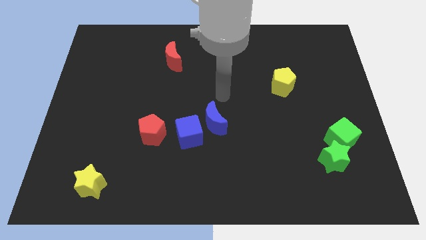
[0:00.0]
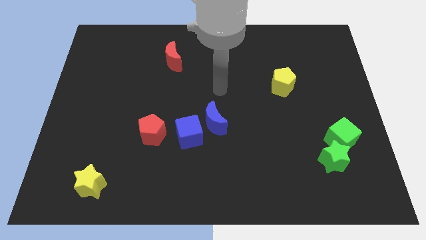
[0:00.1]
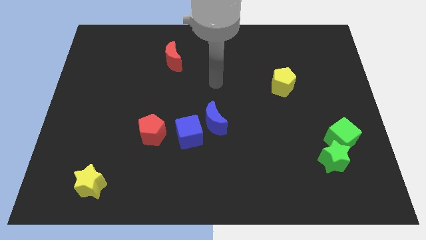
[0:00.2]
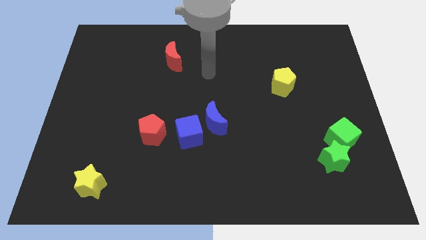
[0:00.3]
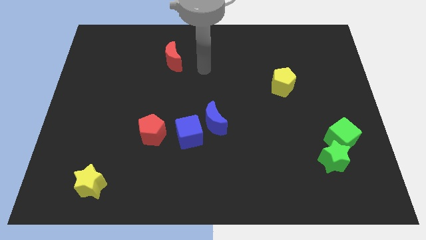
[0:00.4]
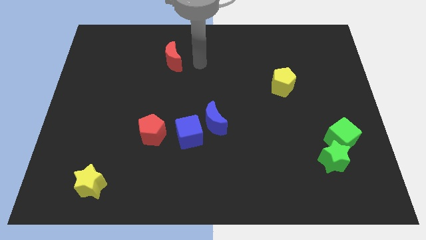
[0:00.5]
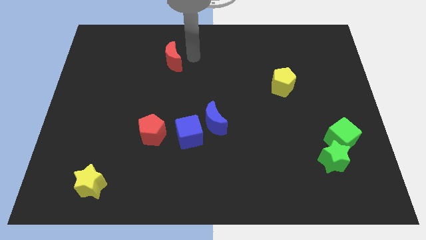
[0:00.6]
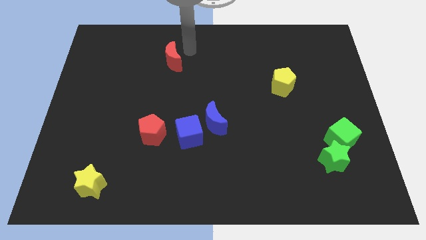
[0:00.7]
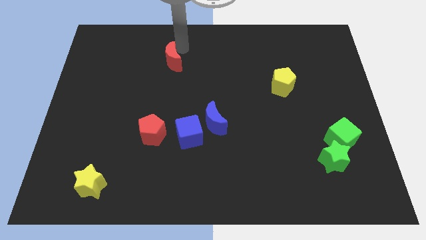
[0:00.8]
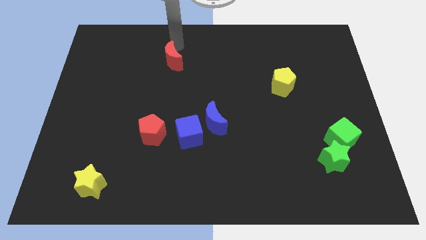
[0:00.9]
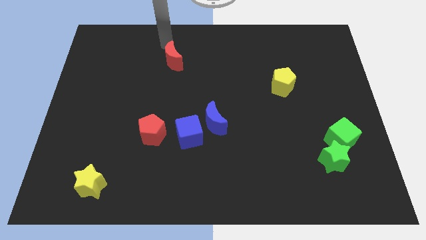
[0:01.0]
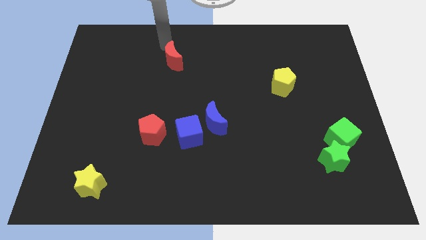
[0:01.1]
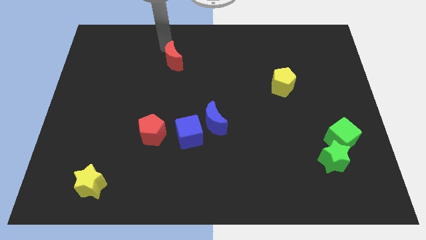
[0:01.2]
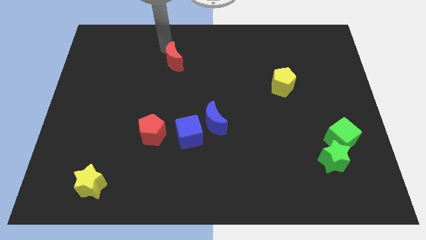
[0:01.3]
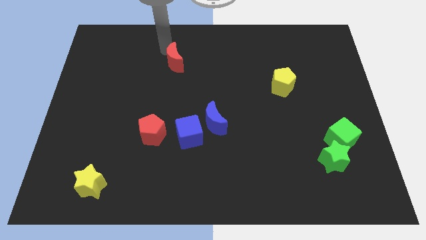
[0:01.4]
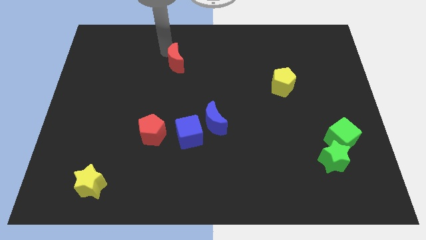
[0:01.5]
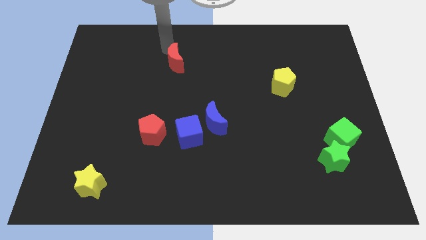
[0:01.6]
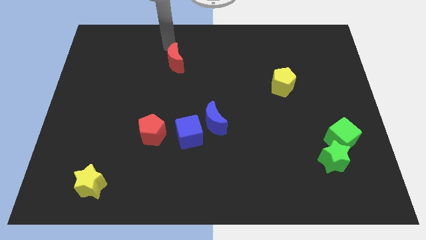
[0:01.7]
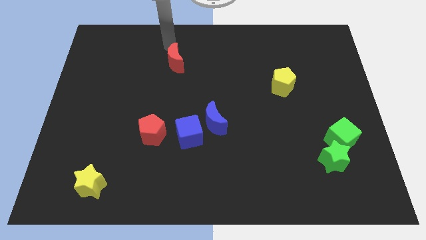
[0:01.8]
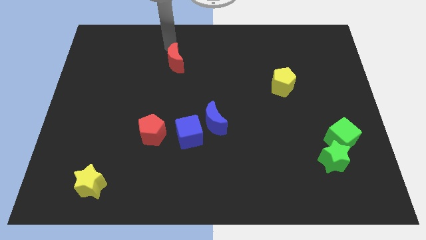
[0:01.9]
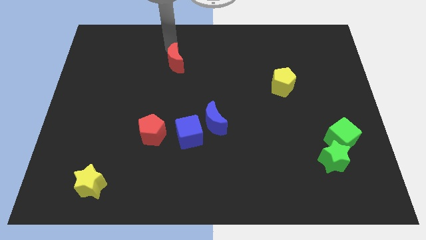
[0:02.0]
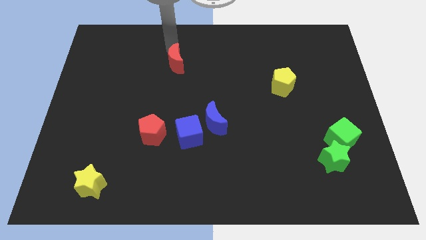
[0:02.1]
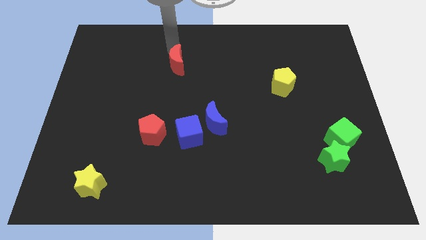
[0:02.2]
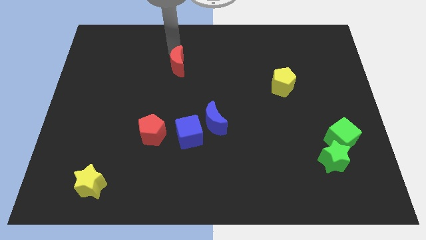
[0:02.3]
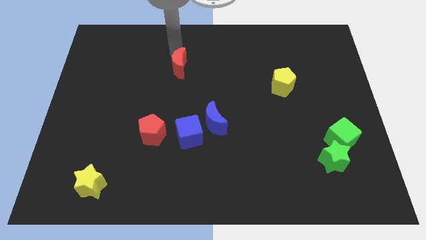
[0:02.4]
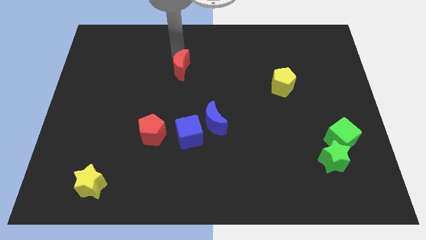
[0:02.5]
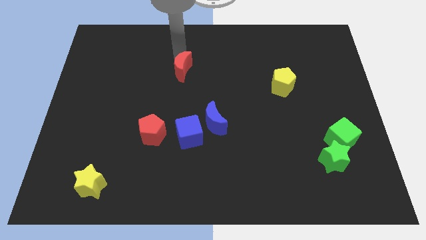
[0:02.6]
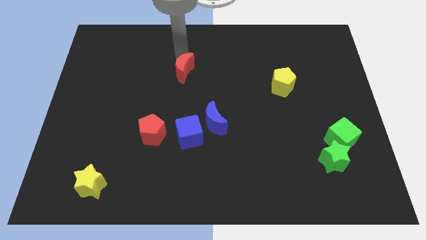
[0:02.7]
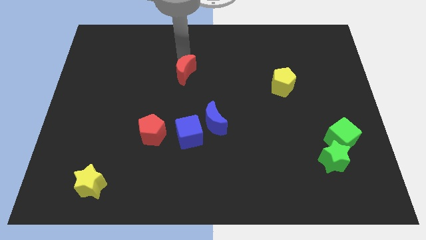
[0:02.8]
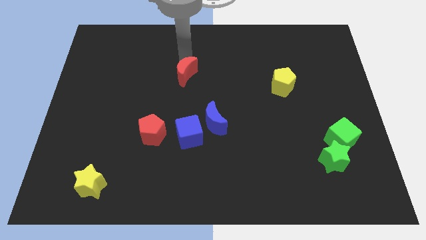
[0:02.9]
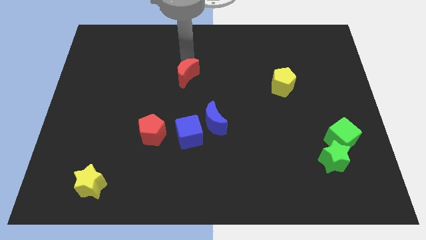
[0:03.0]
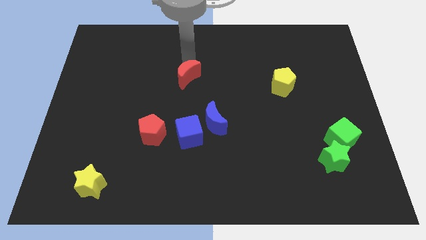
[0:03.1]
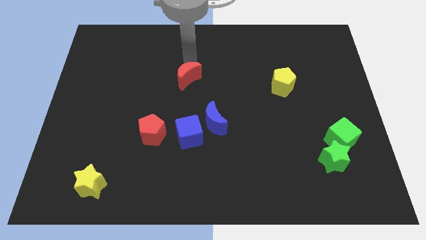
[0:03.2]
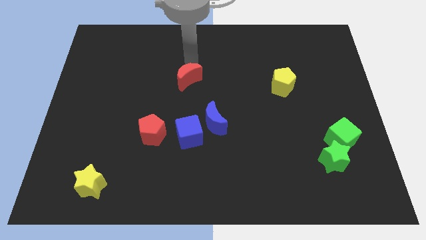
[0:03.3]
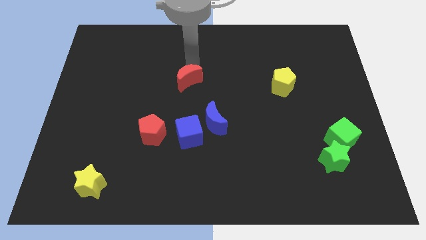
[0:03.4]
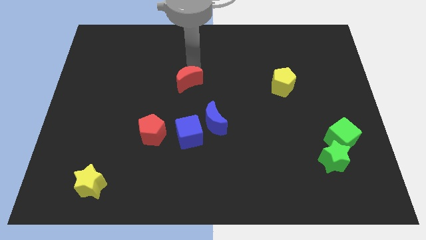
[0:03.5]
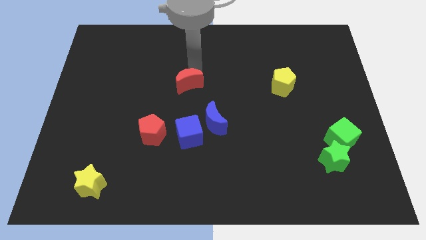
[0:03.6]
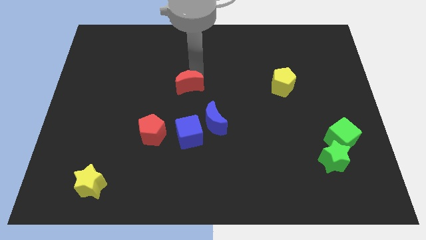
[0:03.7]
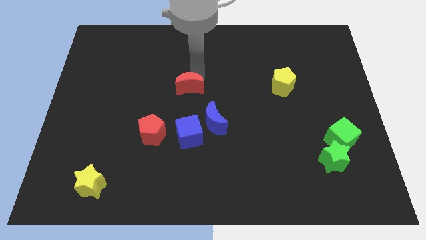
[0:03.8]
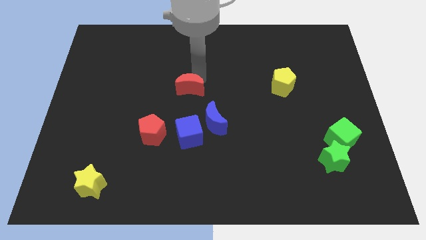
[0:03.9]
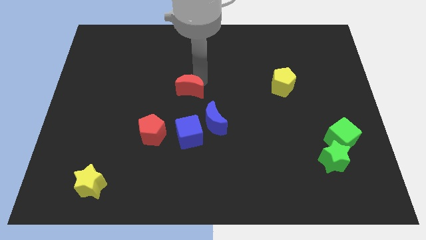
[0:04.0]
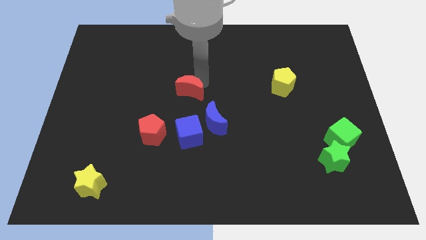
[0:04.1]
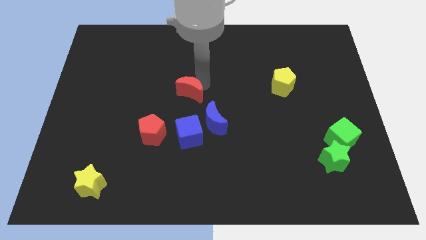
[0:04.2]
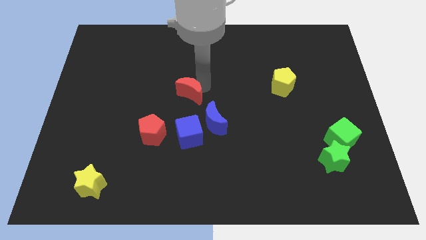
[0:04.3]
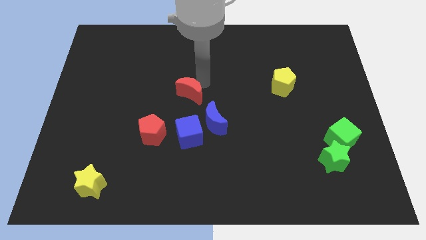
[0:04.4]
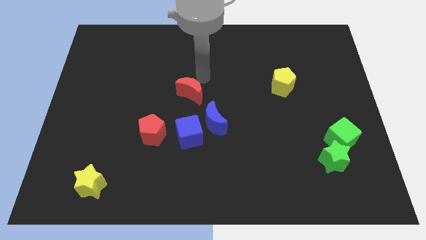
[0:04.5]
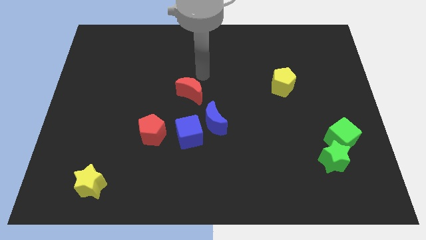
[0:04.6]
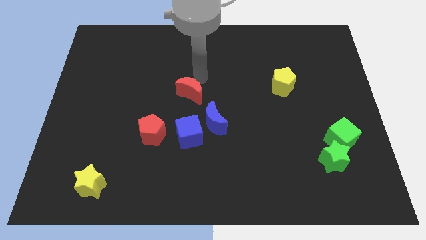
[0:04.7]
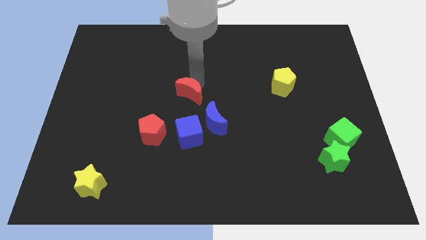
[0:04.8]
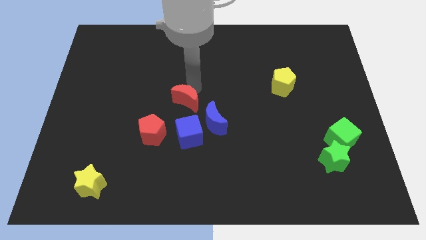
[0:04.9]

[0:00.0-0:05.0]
slide the red moon to the top right of the red pentagon

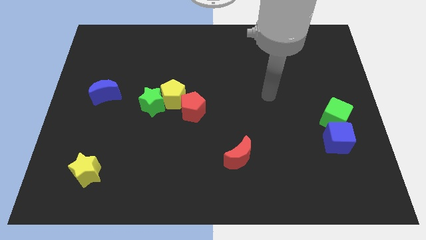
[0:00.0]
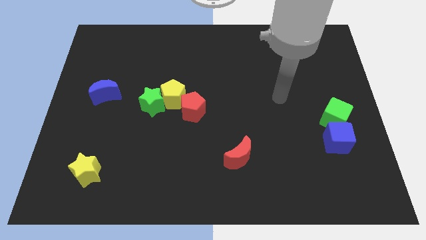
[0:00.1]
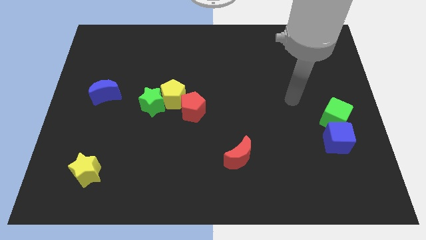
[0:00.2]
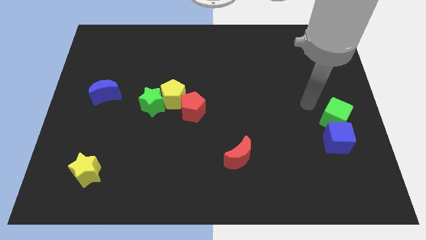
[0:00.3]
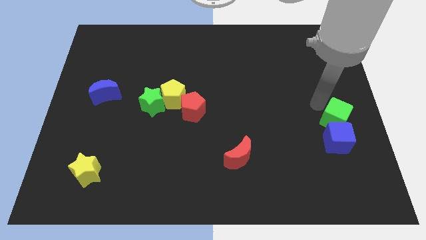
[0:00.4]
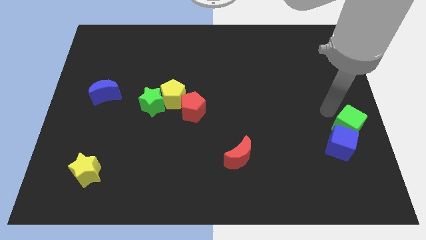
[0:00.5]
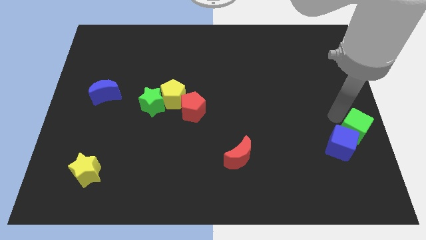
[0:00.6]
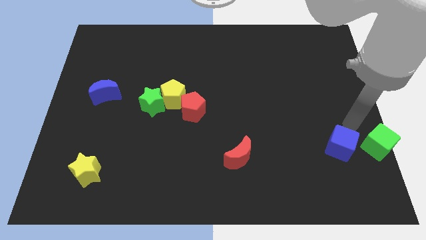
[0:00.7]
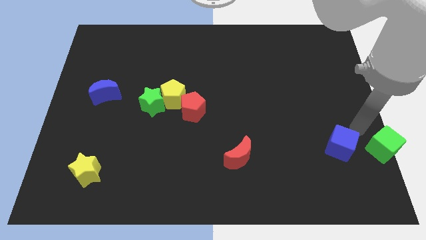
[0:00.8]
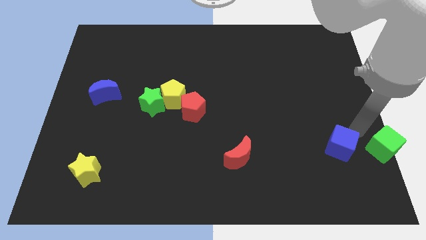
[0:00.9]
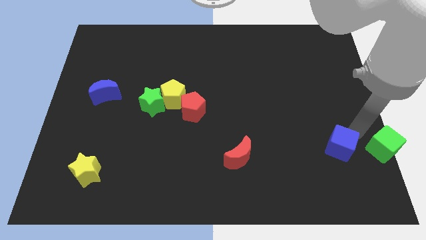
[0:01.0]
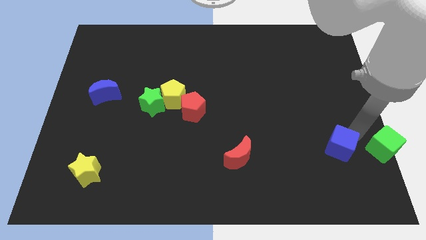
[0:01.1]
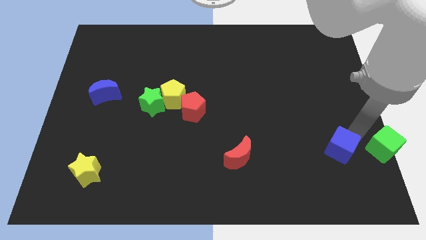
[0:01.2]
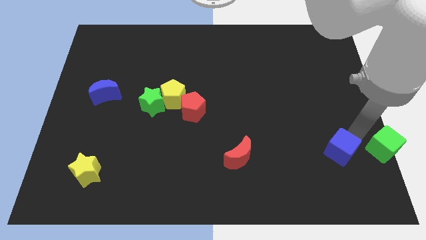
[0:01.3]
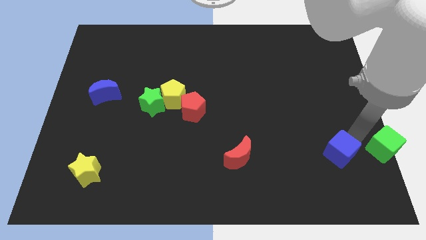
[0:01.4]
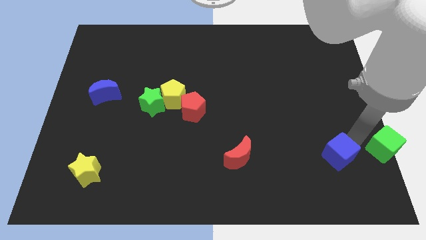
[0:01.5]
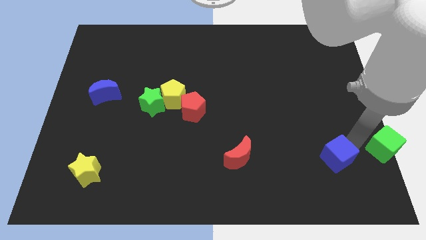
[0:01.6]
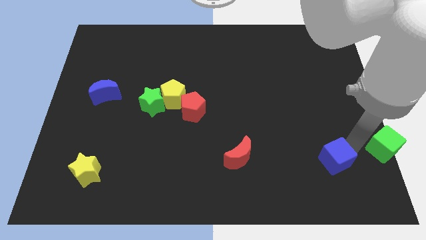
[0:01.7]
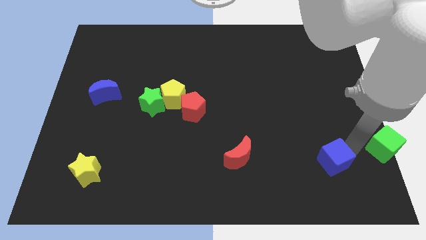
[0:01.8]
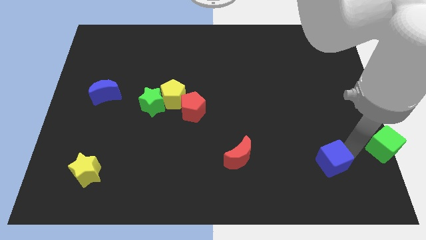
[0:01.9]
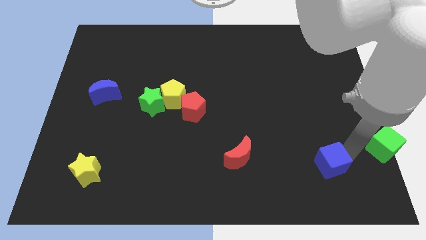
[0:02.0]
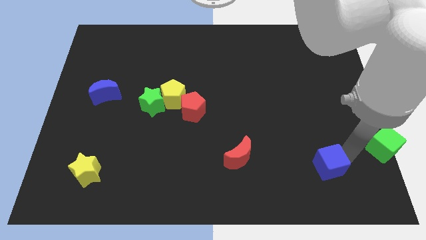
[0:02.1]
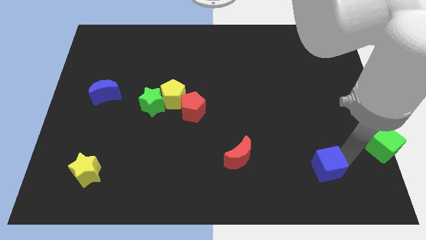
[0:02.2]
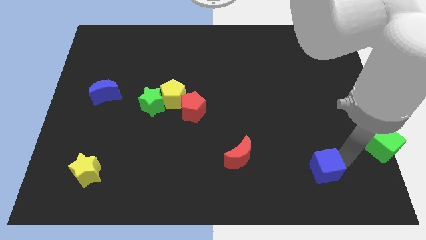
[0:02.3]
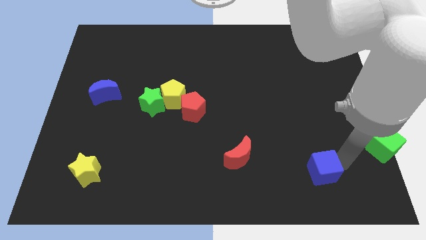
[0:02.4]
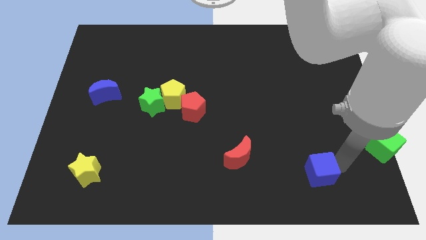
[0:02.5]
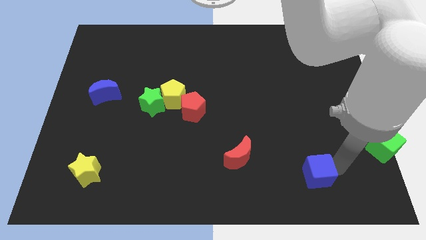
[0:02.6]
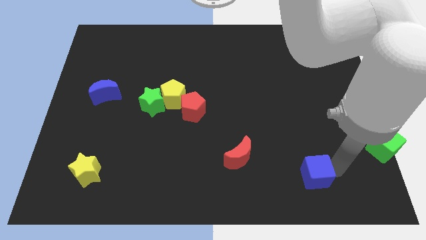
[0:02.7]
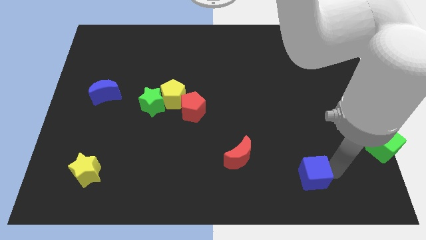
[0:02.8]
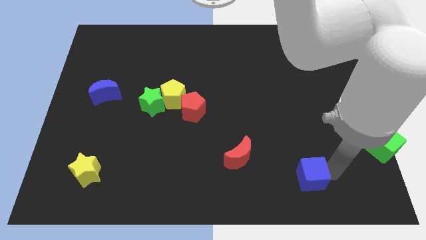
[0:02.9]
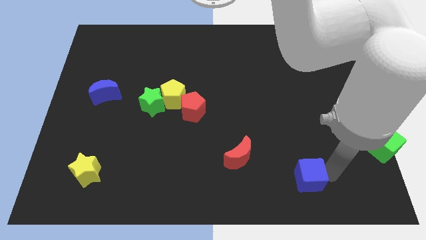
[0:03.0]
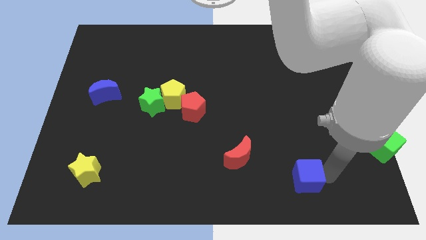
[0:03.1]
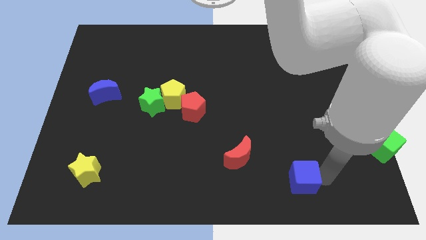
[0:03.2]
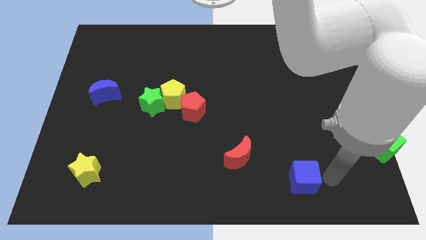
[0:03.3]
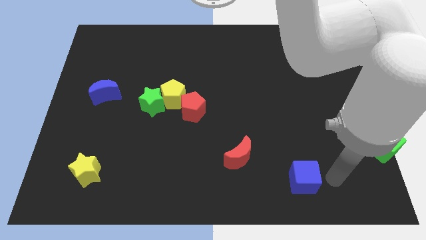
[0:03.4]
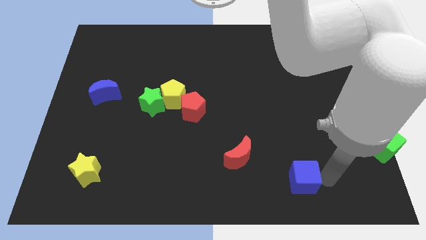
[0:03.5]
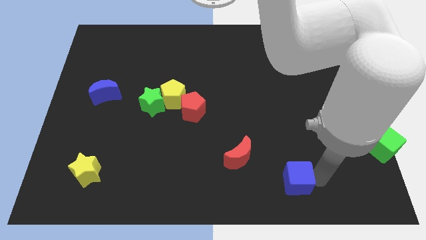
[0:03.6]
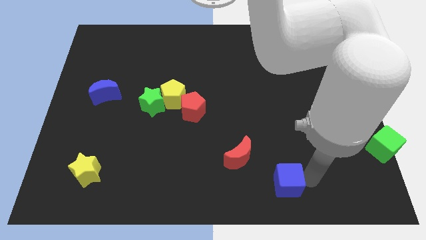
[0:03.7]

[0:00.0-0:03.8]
push the blue cube diagonally down and to the right of the red moon
